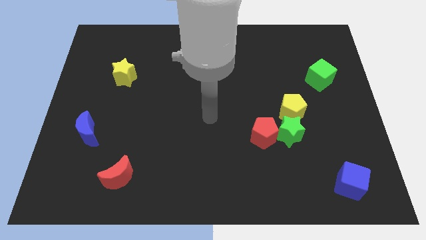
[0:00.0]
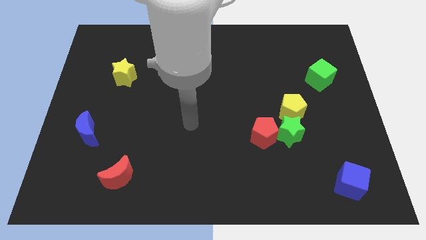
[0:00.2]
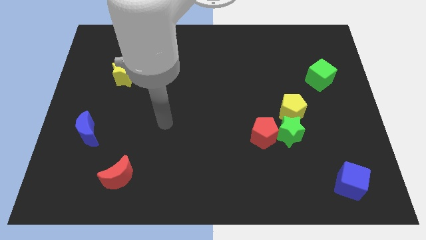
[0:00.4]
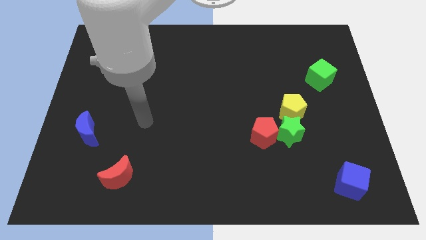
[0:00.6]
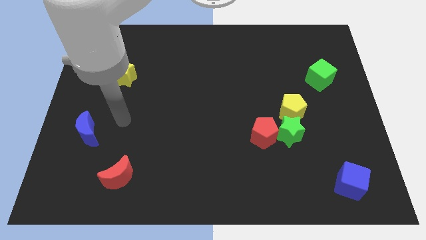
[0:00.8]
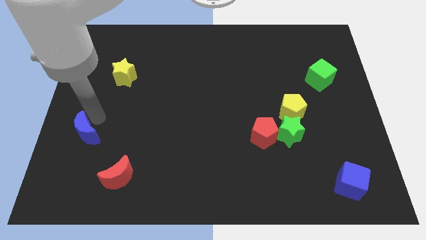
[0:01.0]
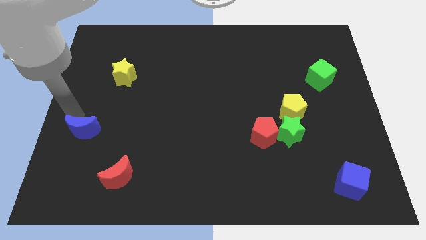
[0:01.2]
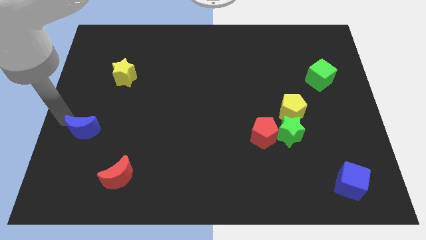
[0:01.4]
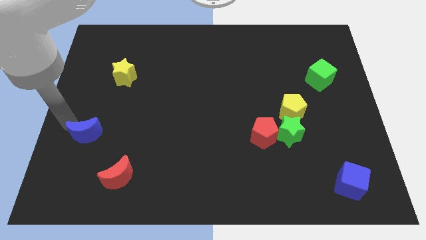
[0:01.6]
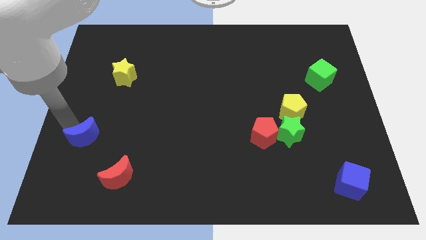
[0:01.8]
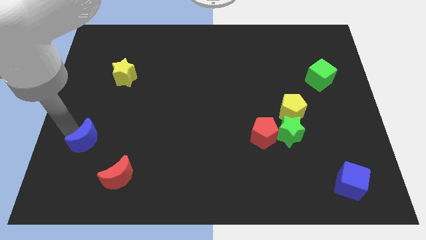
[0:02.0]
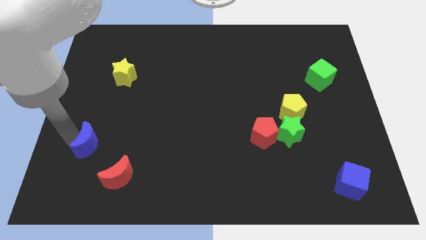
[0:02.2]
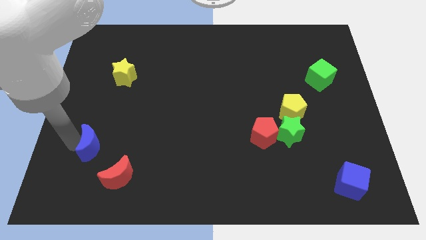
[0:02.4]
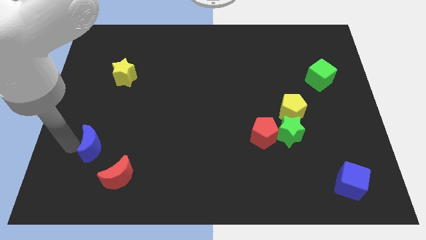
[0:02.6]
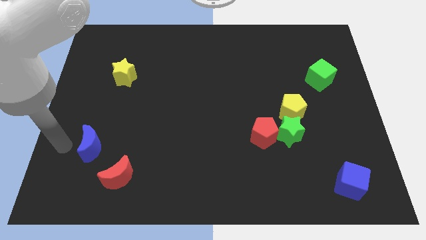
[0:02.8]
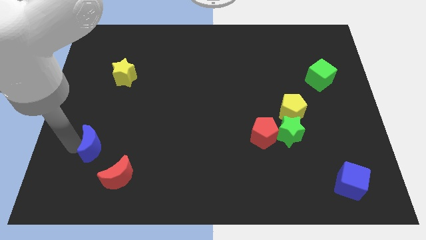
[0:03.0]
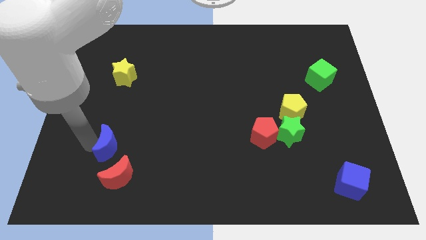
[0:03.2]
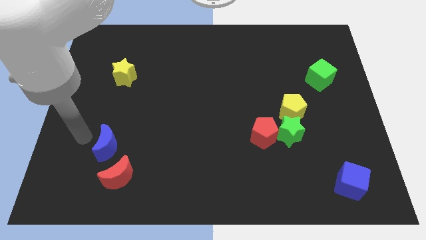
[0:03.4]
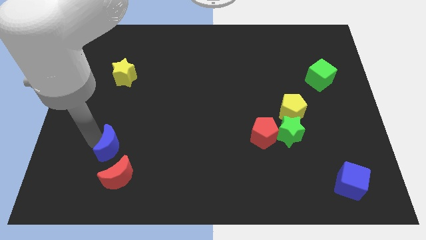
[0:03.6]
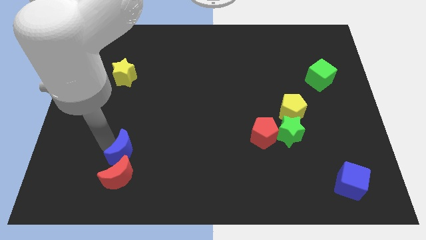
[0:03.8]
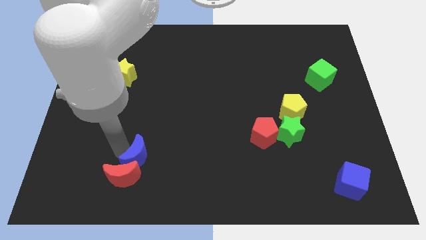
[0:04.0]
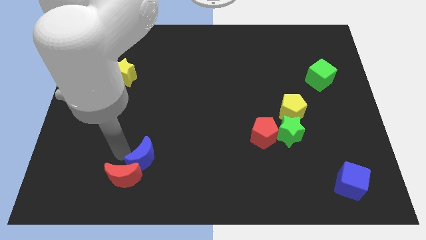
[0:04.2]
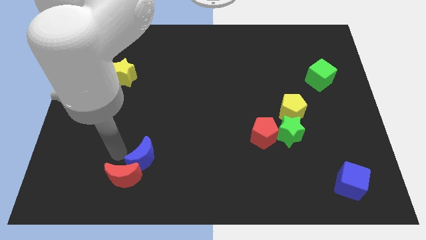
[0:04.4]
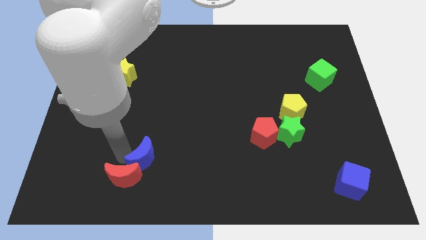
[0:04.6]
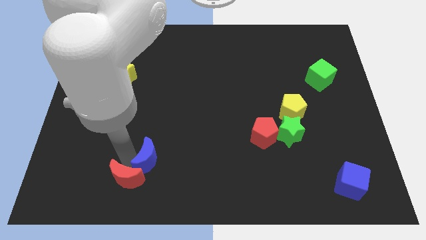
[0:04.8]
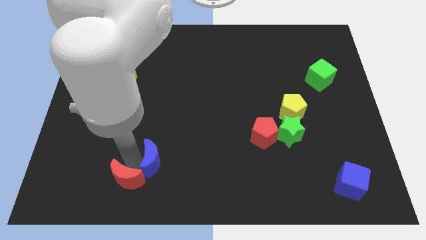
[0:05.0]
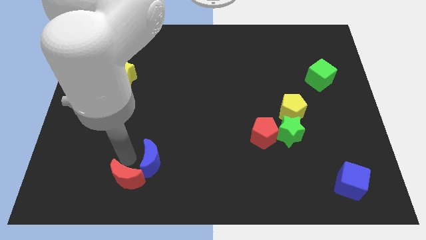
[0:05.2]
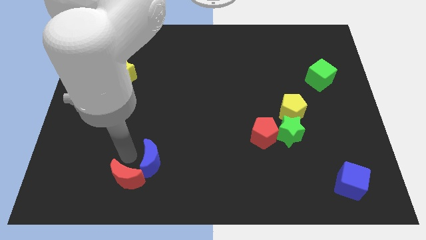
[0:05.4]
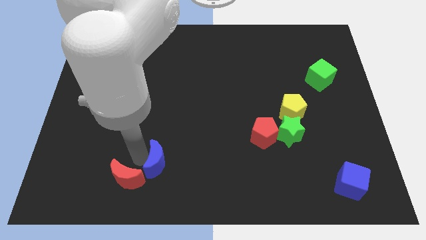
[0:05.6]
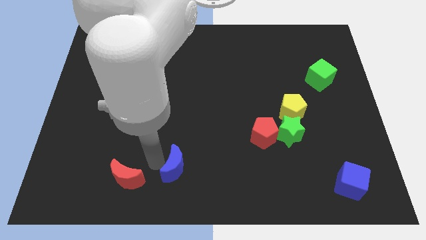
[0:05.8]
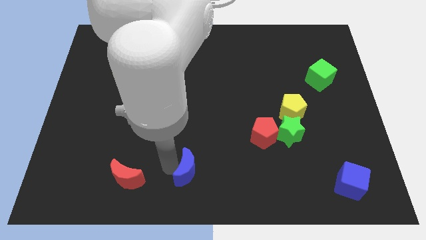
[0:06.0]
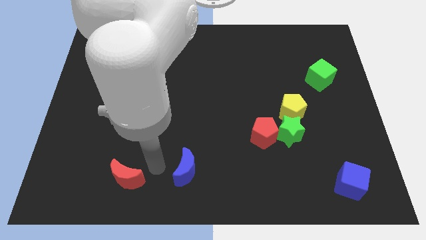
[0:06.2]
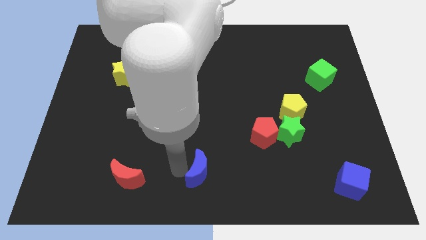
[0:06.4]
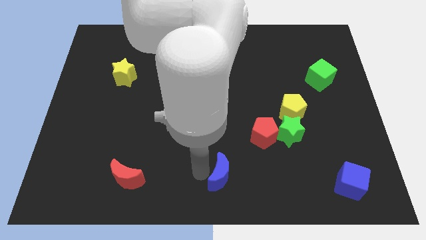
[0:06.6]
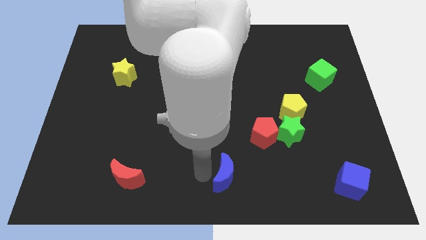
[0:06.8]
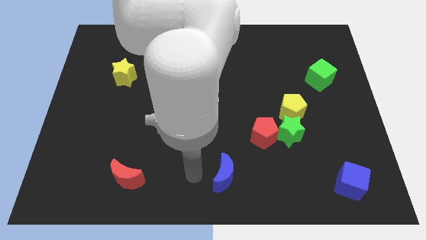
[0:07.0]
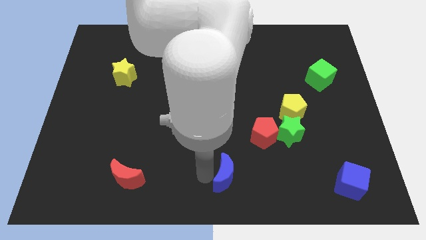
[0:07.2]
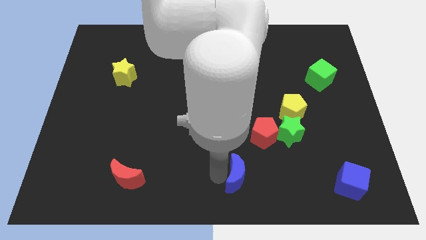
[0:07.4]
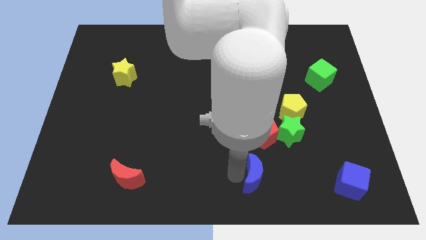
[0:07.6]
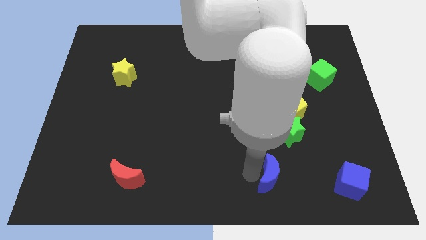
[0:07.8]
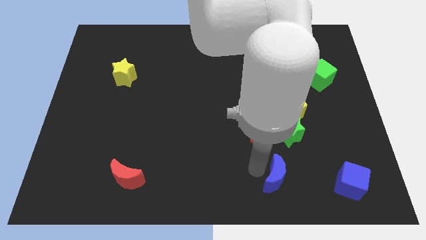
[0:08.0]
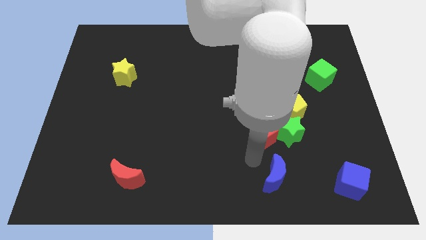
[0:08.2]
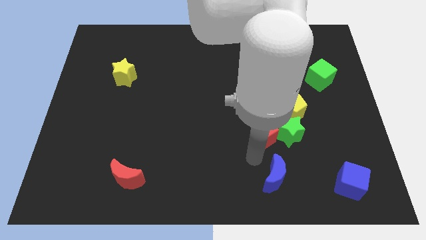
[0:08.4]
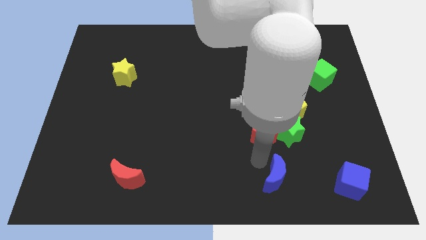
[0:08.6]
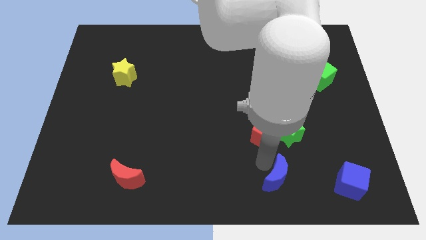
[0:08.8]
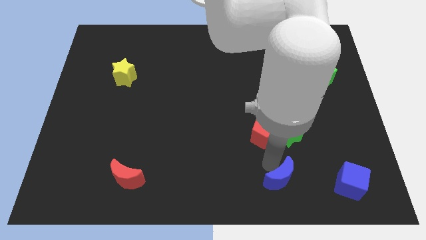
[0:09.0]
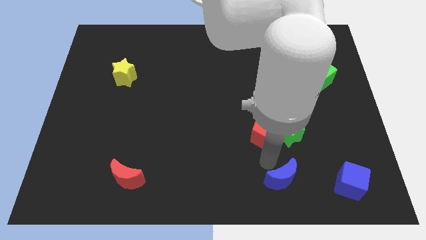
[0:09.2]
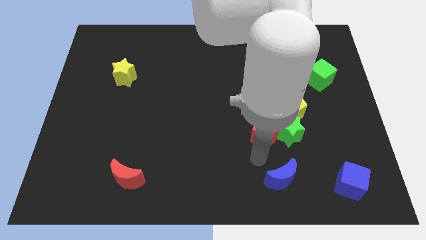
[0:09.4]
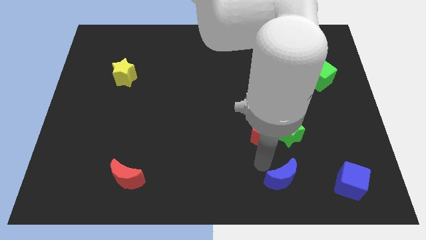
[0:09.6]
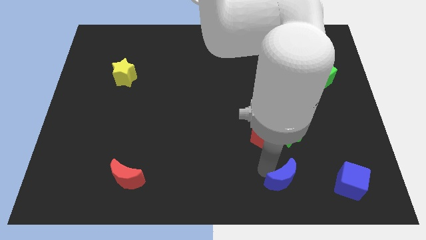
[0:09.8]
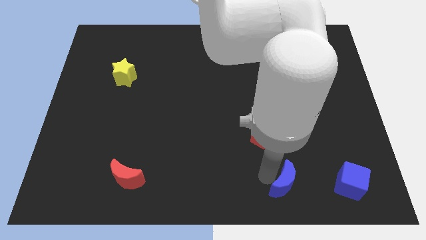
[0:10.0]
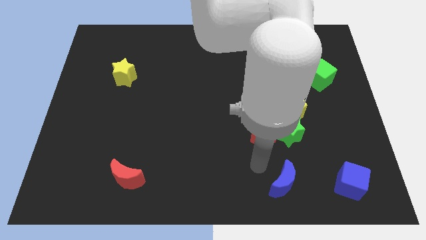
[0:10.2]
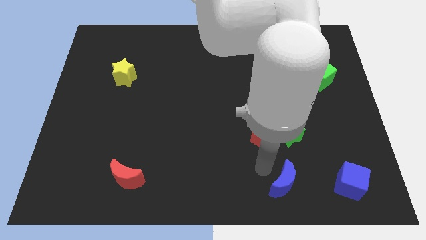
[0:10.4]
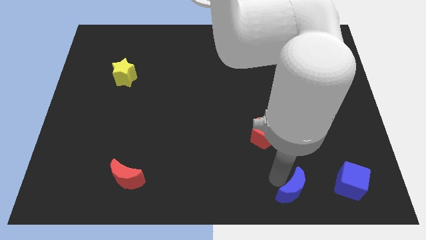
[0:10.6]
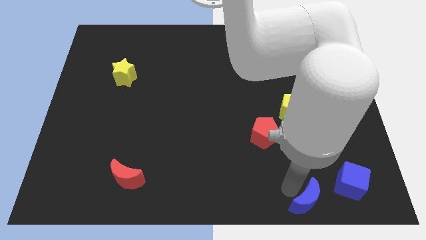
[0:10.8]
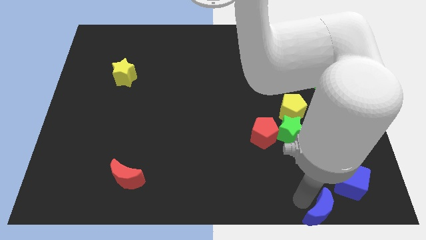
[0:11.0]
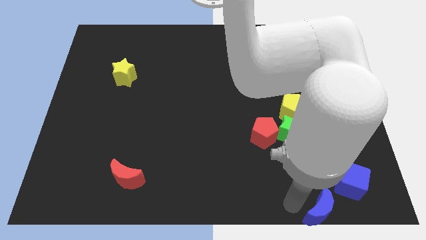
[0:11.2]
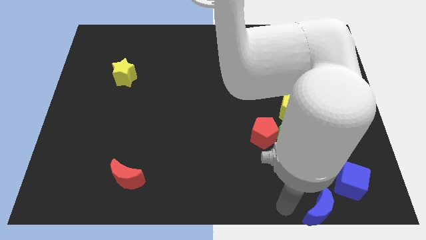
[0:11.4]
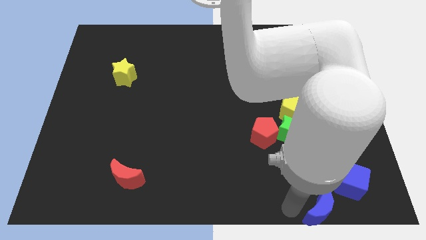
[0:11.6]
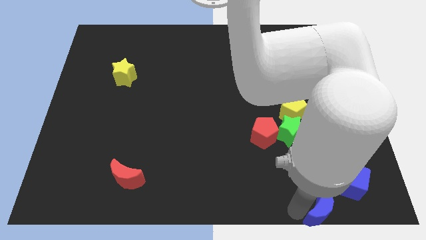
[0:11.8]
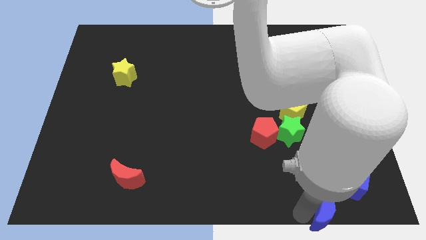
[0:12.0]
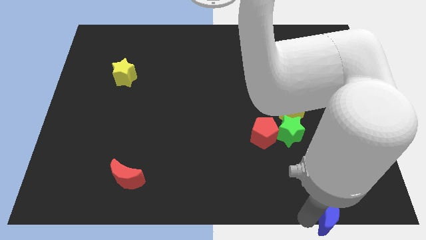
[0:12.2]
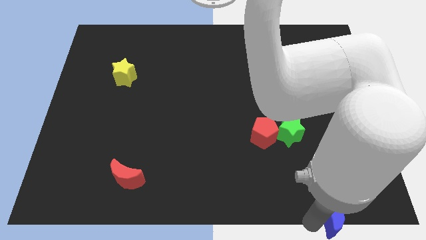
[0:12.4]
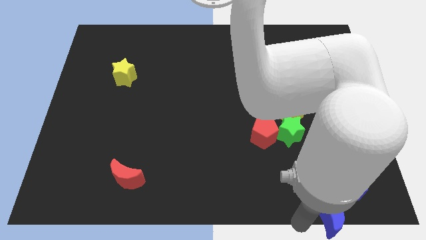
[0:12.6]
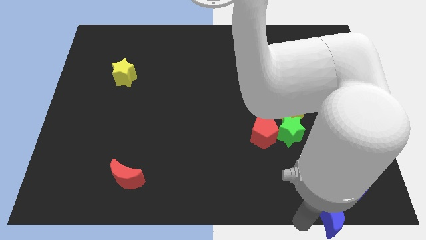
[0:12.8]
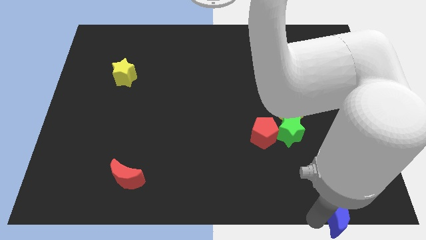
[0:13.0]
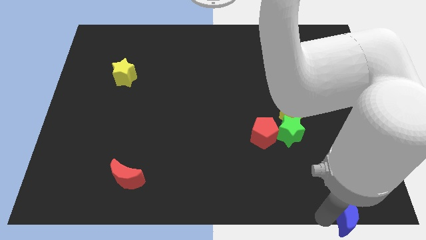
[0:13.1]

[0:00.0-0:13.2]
move the blue moon to the bottom right of the board
